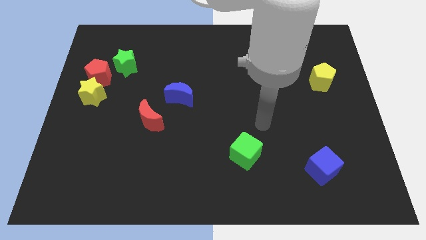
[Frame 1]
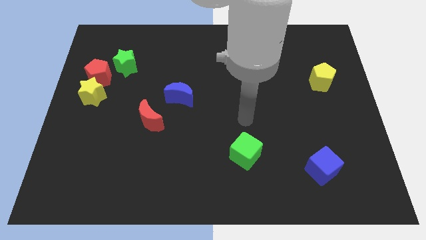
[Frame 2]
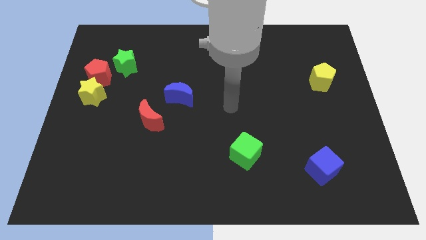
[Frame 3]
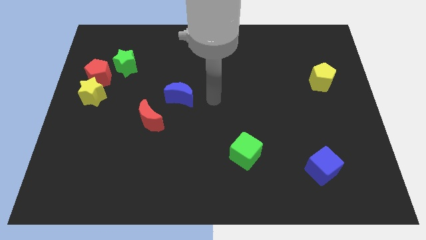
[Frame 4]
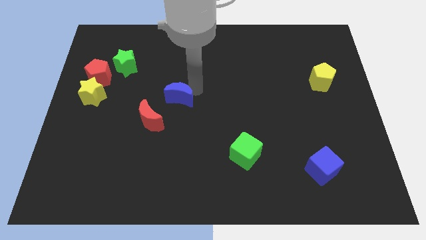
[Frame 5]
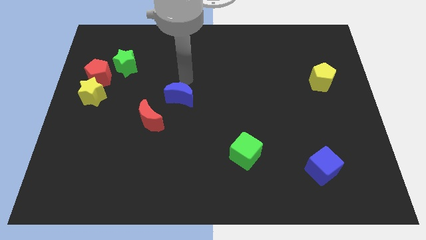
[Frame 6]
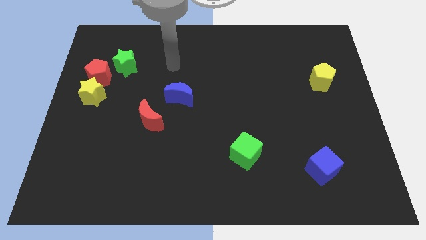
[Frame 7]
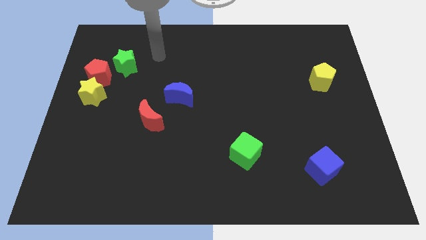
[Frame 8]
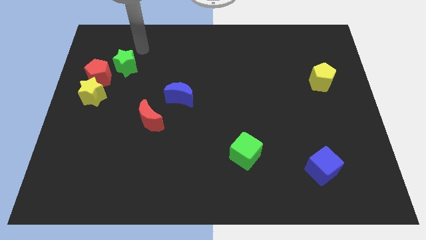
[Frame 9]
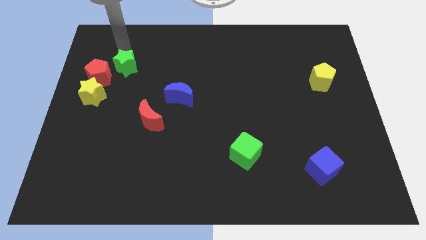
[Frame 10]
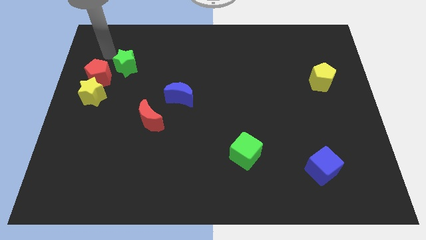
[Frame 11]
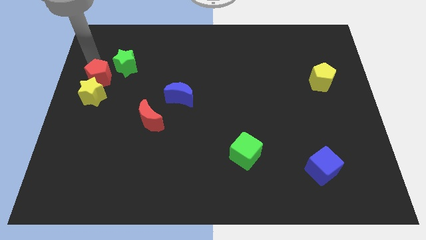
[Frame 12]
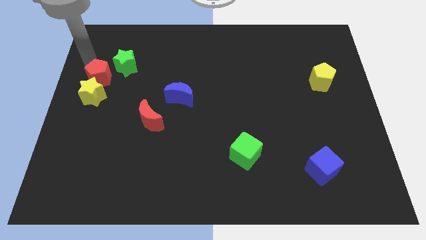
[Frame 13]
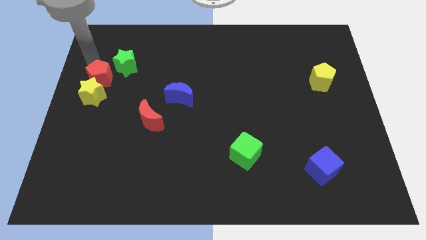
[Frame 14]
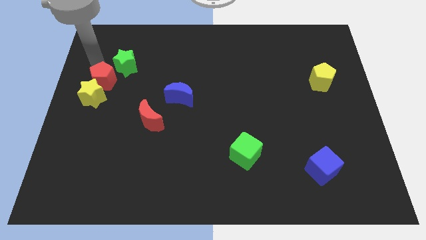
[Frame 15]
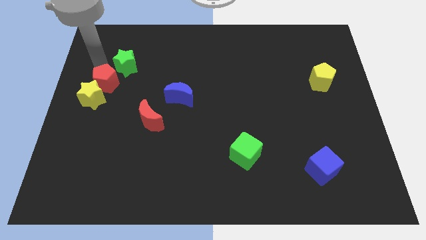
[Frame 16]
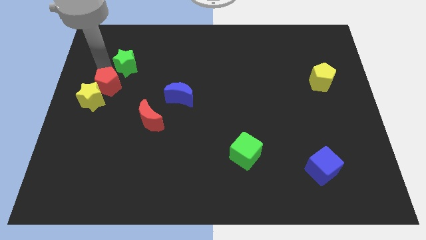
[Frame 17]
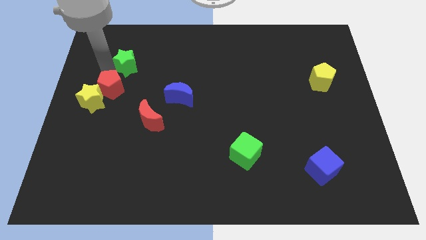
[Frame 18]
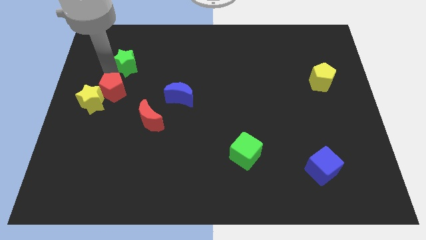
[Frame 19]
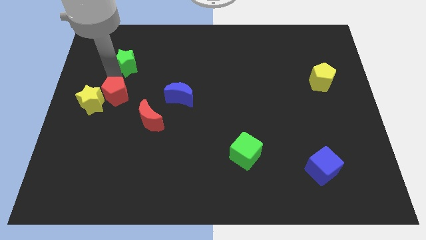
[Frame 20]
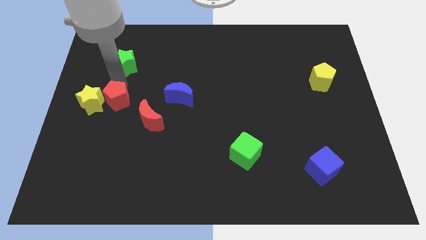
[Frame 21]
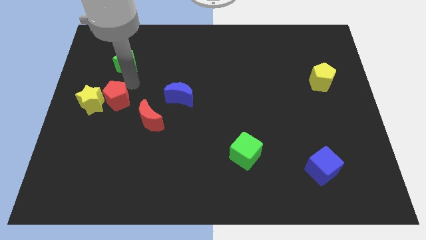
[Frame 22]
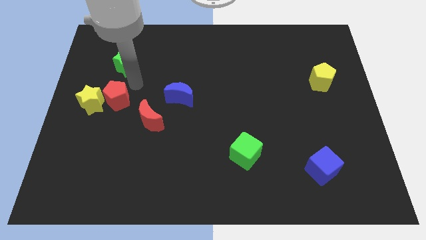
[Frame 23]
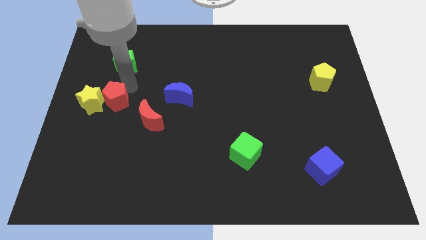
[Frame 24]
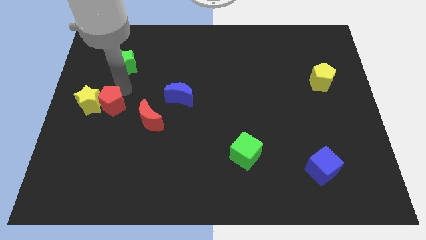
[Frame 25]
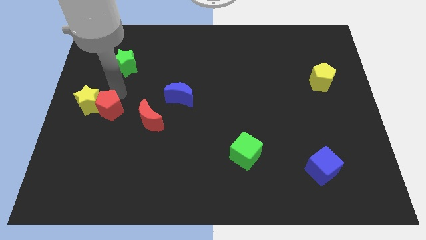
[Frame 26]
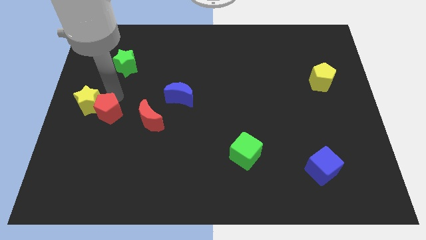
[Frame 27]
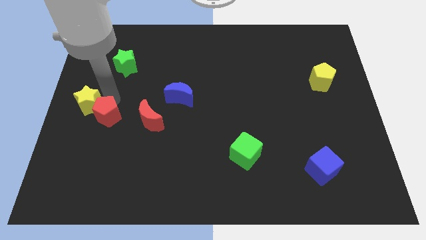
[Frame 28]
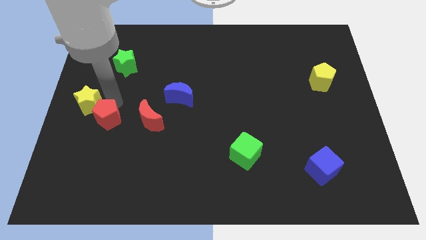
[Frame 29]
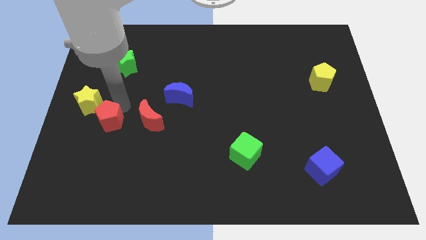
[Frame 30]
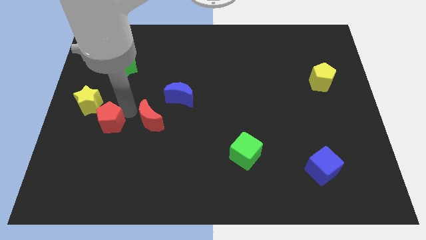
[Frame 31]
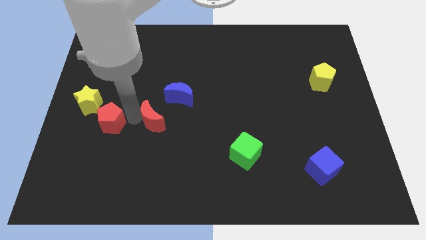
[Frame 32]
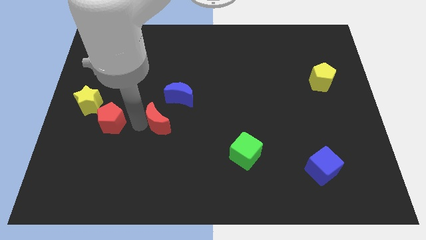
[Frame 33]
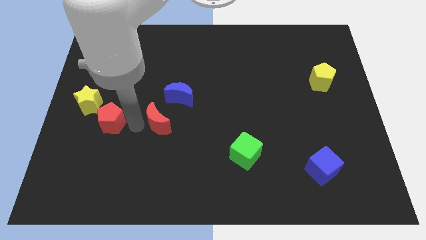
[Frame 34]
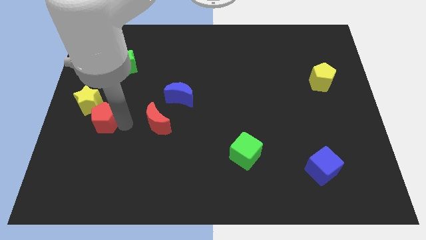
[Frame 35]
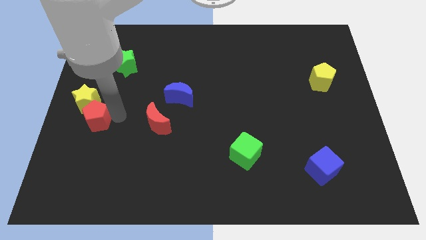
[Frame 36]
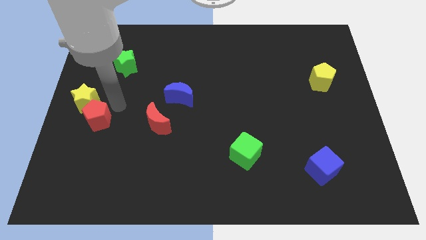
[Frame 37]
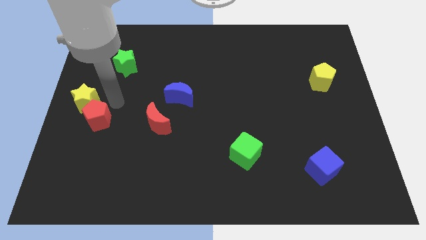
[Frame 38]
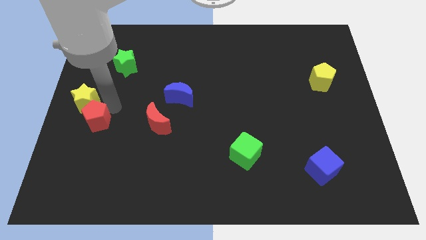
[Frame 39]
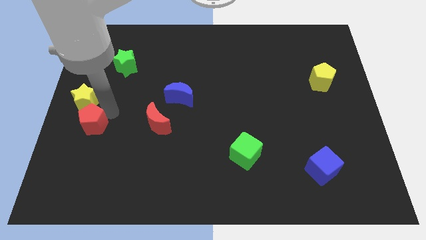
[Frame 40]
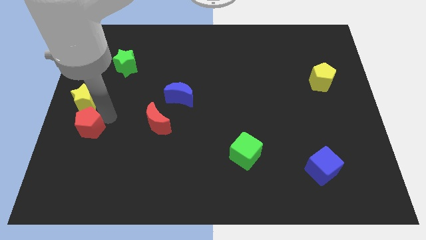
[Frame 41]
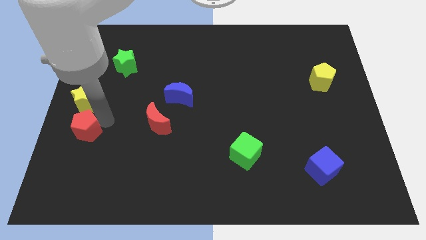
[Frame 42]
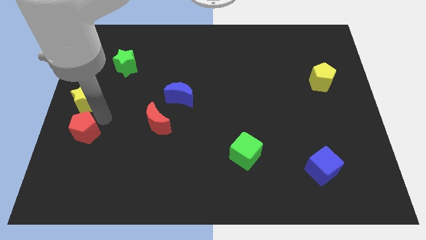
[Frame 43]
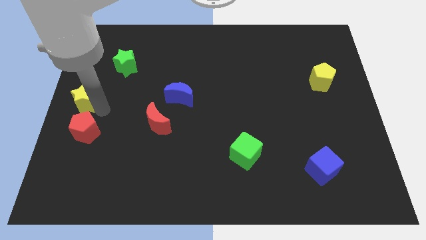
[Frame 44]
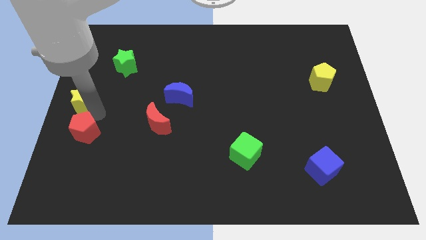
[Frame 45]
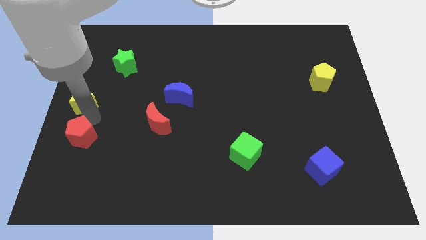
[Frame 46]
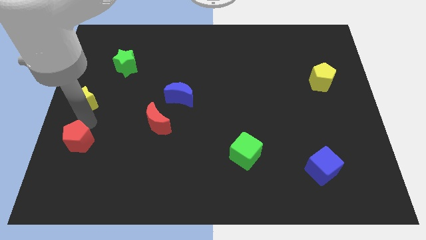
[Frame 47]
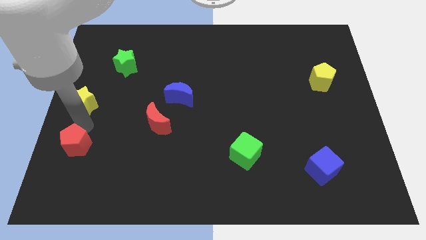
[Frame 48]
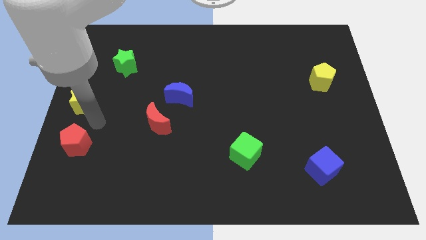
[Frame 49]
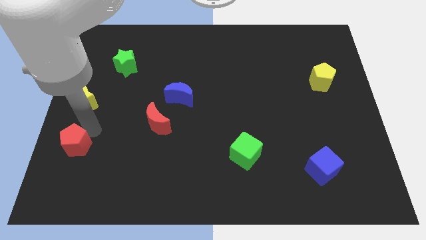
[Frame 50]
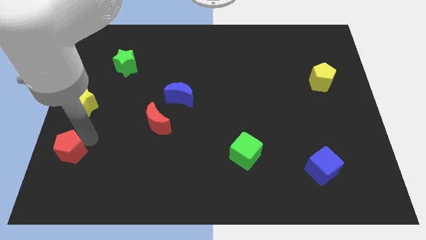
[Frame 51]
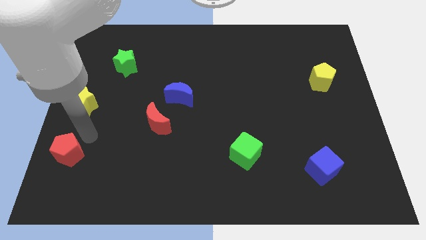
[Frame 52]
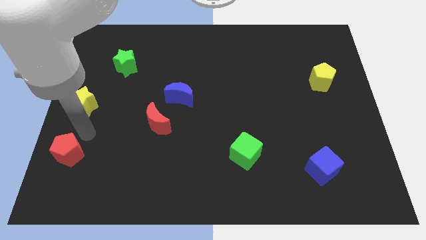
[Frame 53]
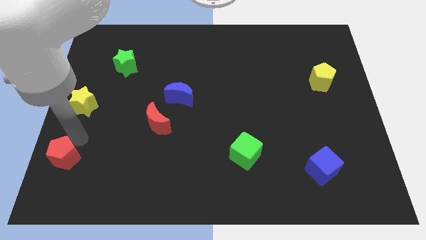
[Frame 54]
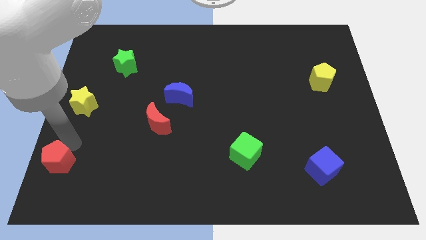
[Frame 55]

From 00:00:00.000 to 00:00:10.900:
put the red pentagon to the bottom left corner

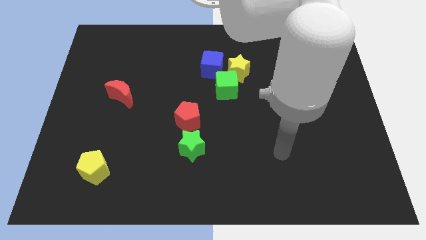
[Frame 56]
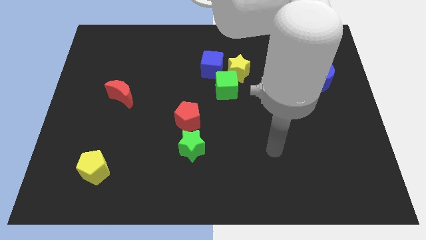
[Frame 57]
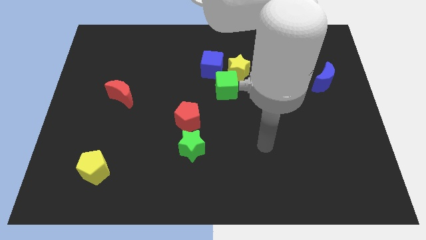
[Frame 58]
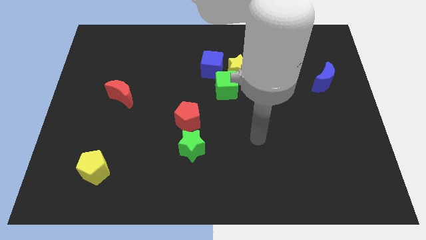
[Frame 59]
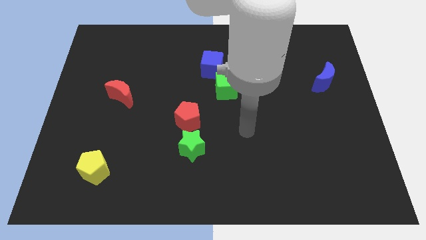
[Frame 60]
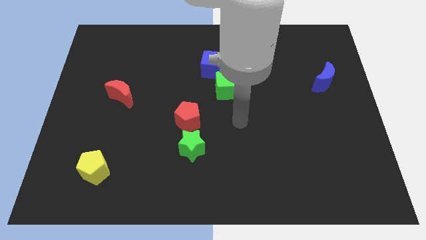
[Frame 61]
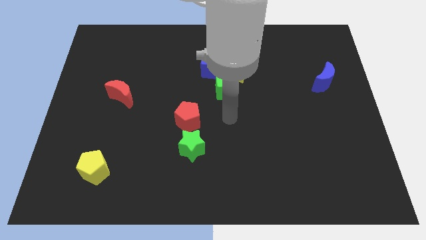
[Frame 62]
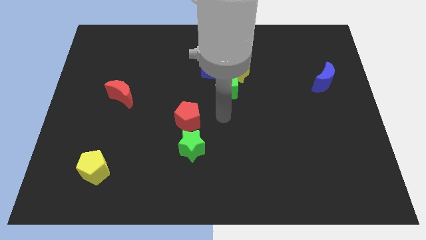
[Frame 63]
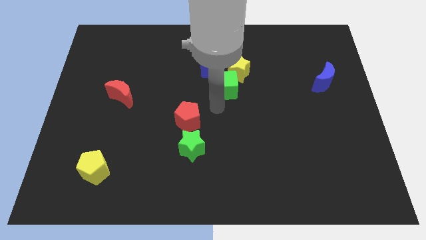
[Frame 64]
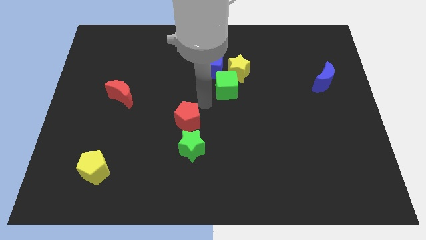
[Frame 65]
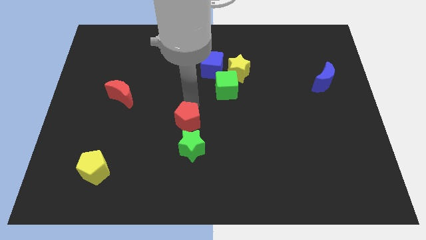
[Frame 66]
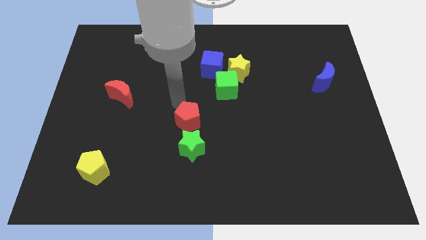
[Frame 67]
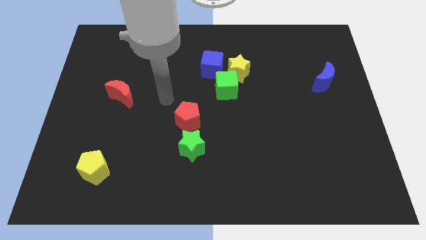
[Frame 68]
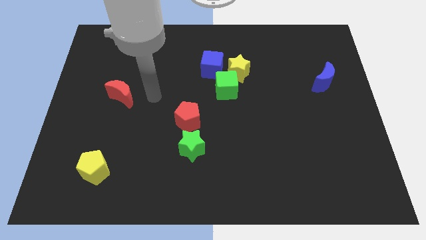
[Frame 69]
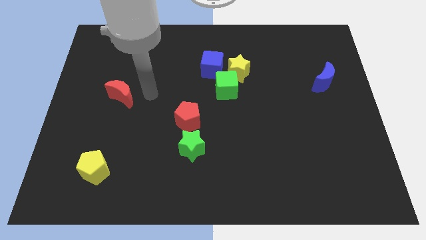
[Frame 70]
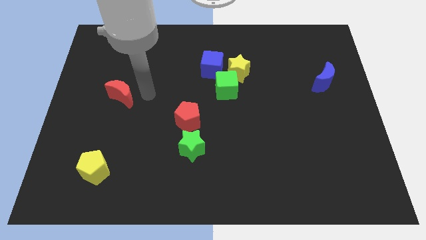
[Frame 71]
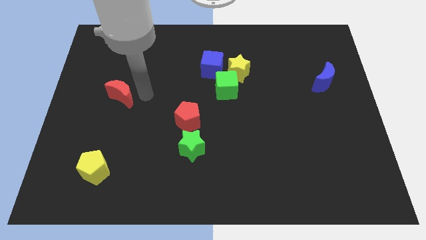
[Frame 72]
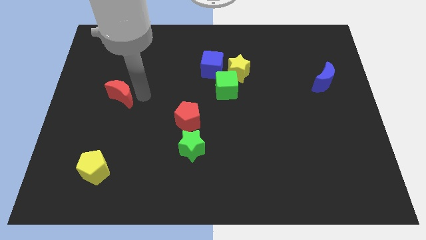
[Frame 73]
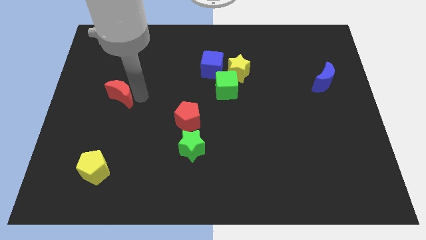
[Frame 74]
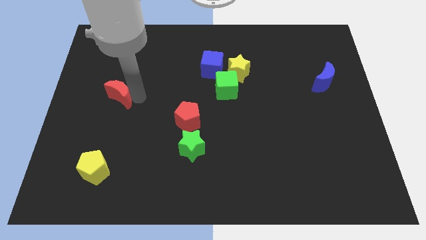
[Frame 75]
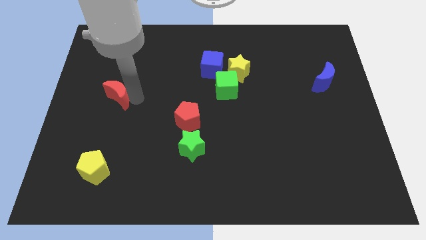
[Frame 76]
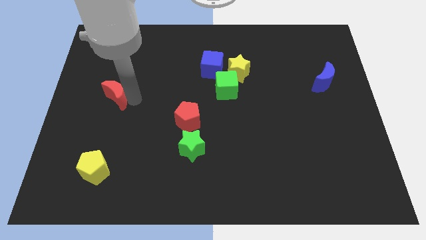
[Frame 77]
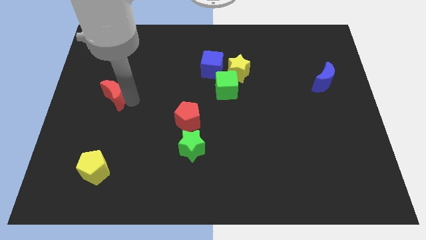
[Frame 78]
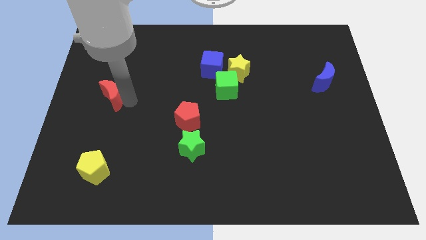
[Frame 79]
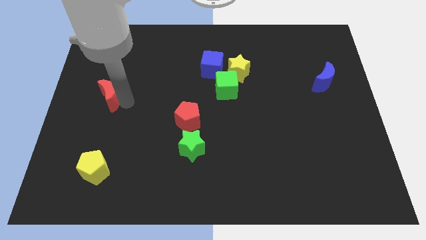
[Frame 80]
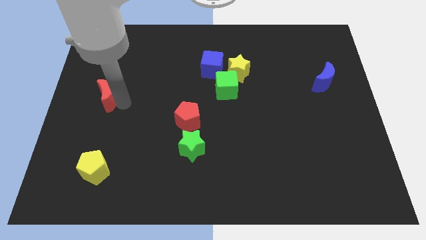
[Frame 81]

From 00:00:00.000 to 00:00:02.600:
slide the red moon to the center left
